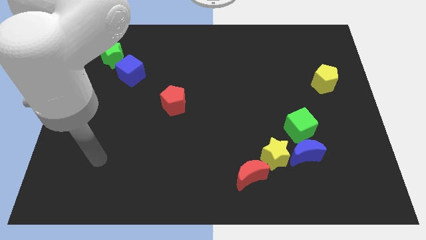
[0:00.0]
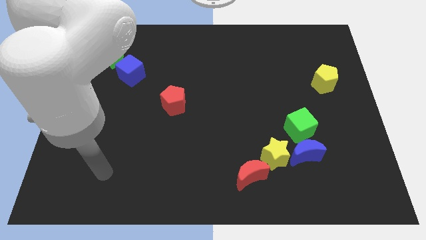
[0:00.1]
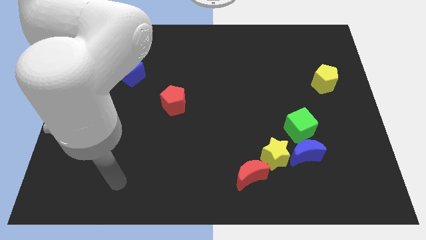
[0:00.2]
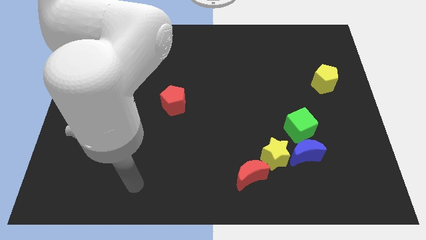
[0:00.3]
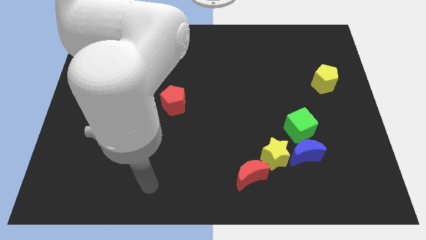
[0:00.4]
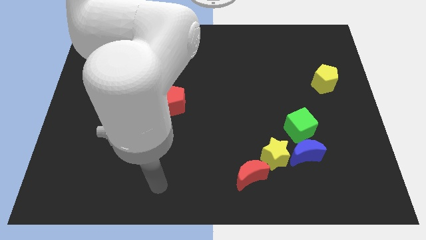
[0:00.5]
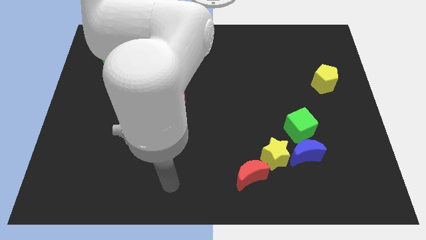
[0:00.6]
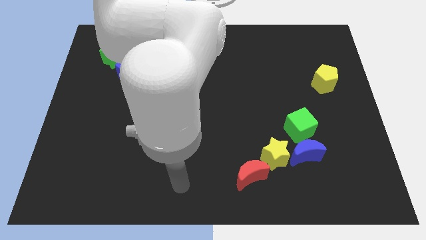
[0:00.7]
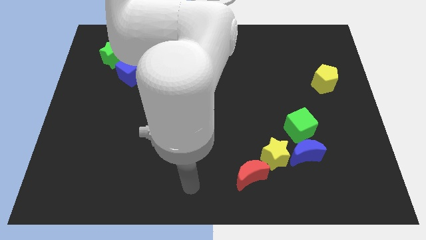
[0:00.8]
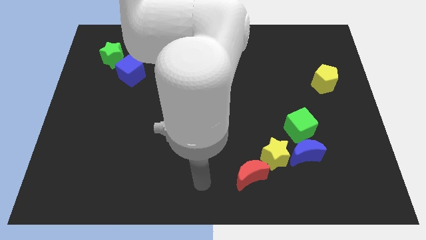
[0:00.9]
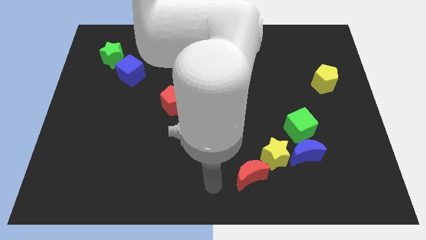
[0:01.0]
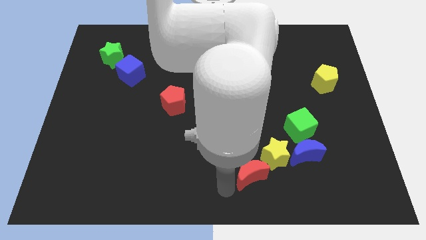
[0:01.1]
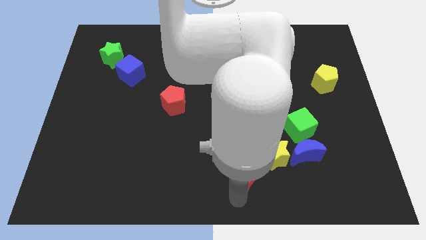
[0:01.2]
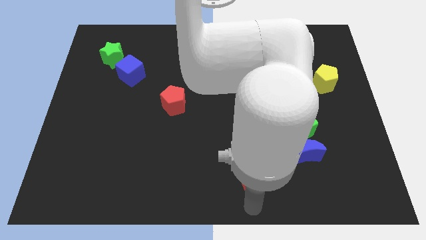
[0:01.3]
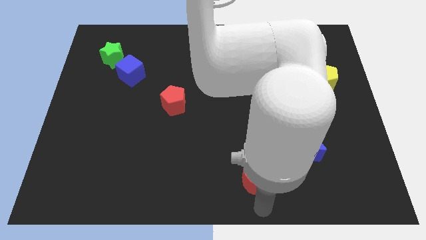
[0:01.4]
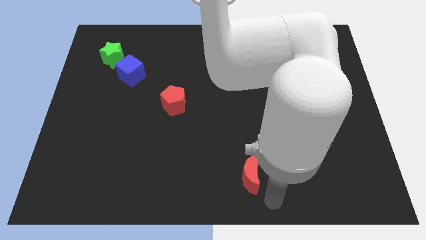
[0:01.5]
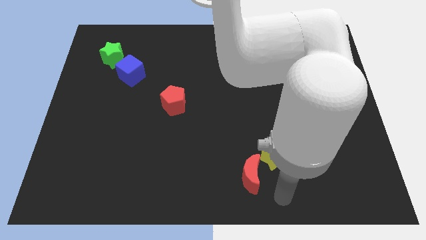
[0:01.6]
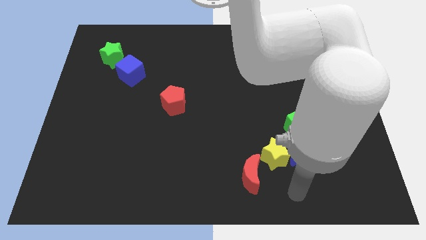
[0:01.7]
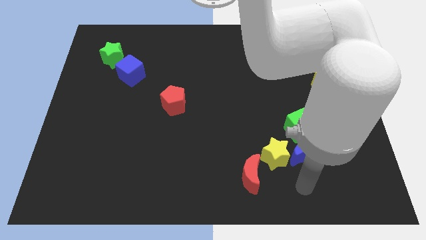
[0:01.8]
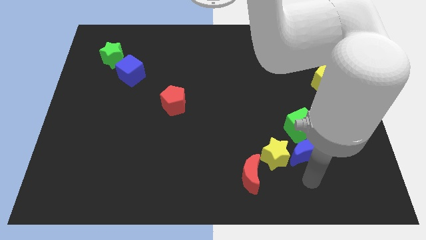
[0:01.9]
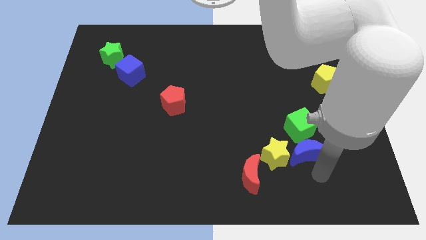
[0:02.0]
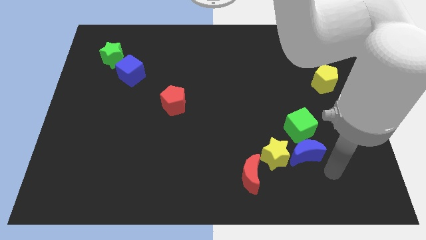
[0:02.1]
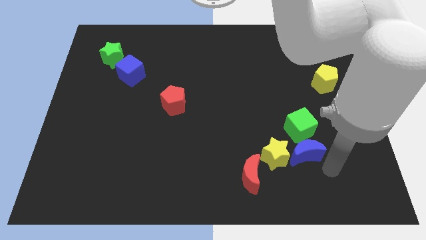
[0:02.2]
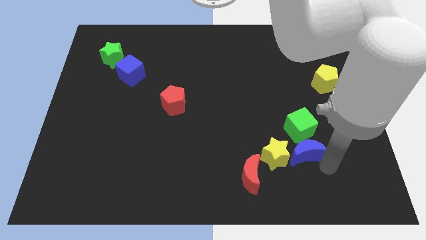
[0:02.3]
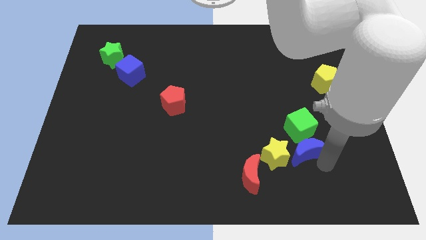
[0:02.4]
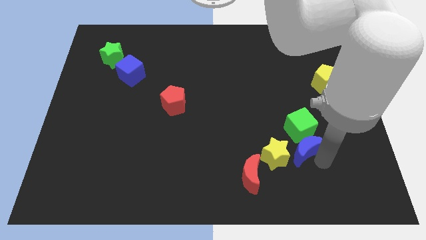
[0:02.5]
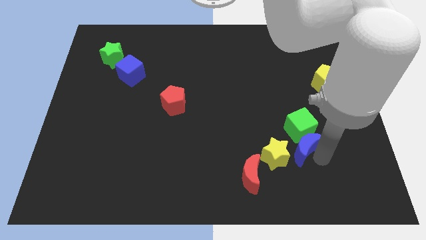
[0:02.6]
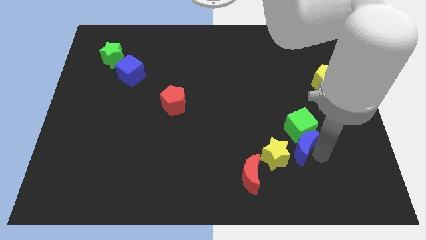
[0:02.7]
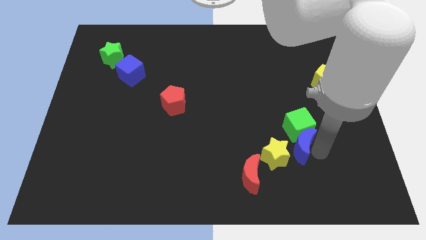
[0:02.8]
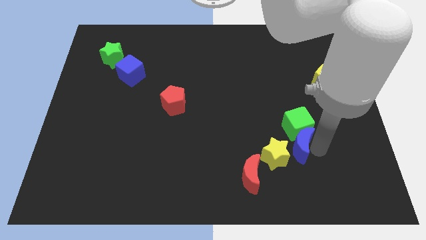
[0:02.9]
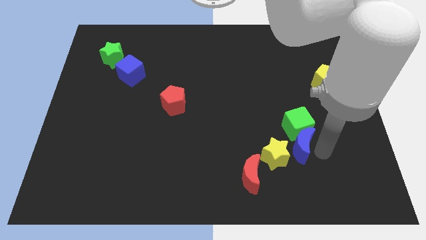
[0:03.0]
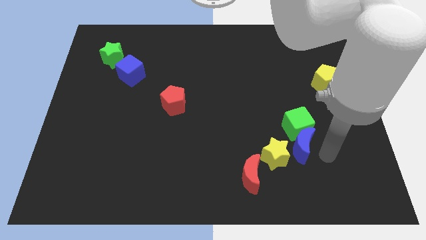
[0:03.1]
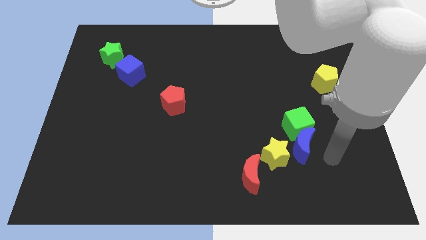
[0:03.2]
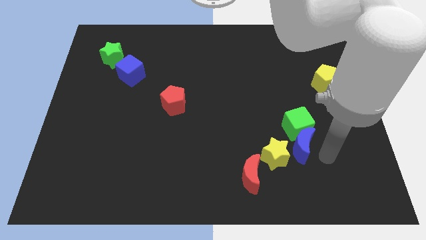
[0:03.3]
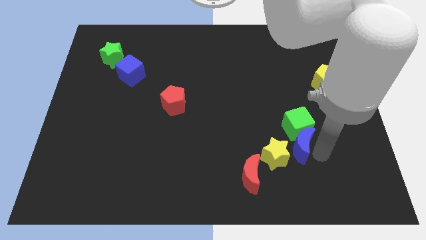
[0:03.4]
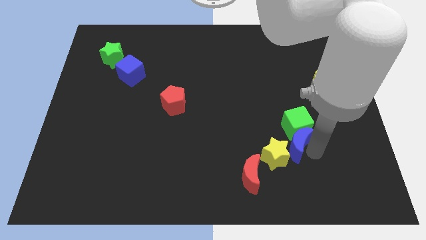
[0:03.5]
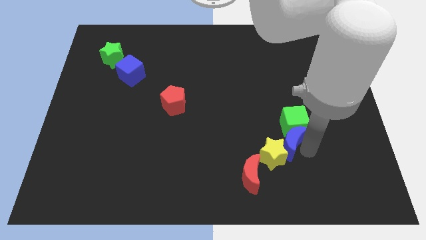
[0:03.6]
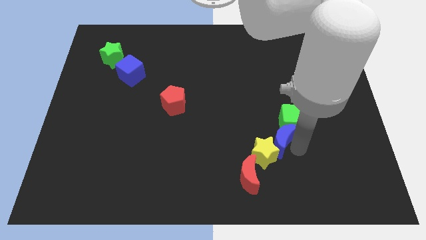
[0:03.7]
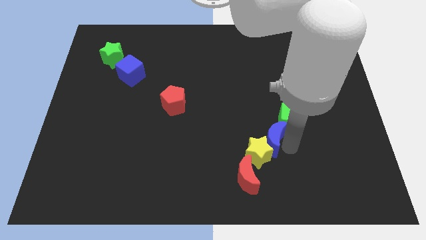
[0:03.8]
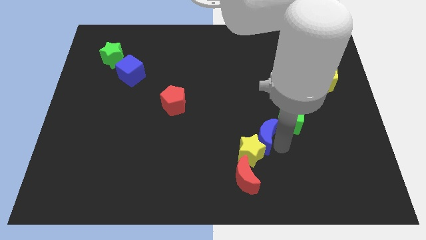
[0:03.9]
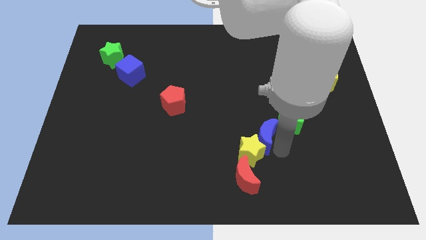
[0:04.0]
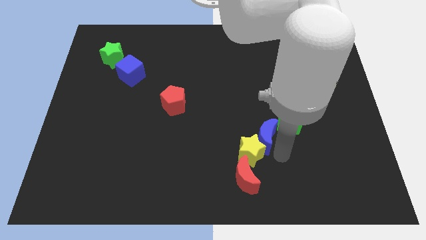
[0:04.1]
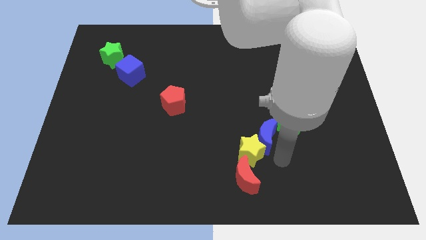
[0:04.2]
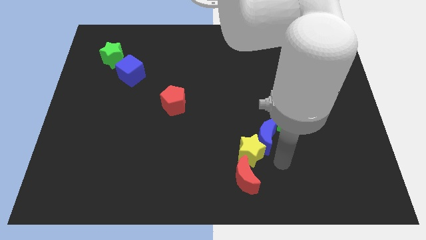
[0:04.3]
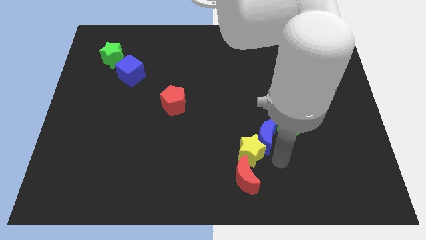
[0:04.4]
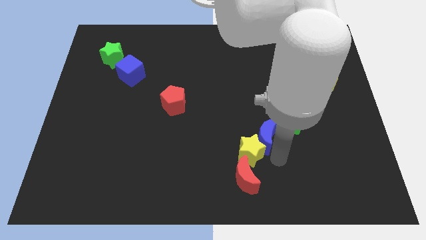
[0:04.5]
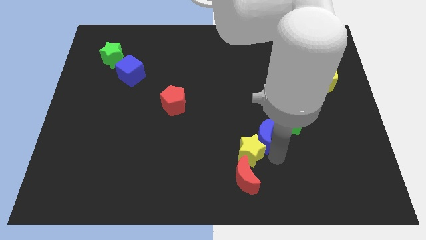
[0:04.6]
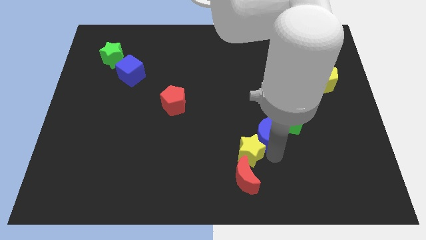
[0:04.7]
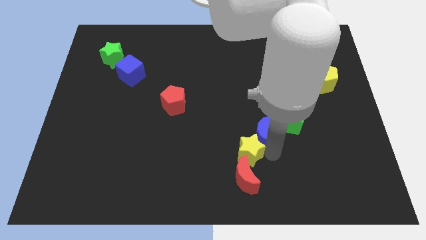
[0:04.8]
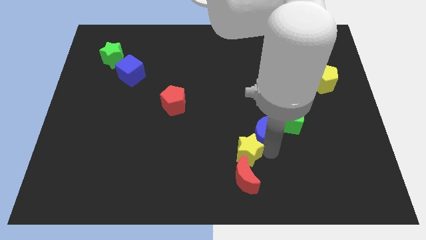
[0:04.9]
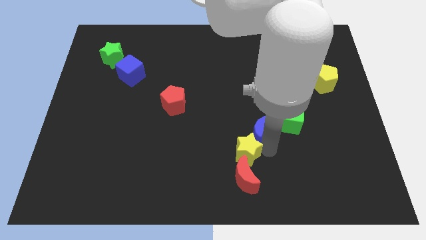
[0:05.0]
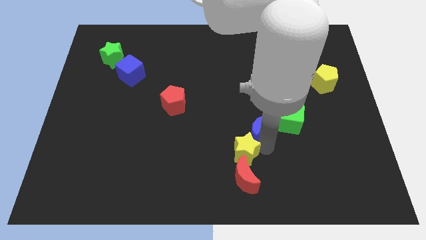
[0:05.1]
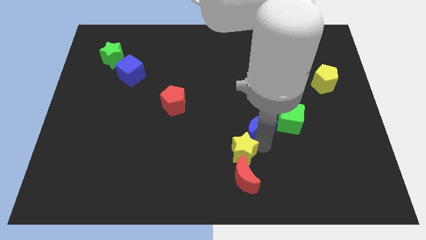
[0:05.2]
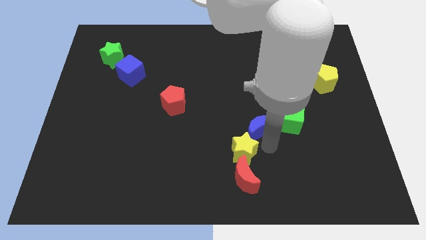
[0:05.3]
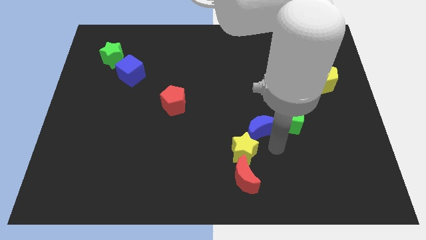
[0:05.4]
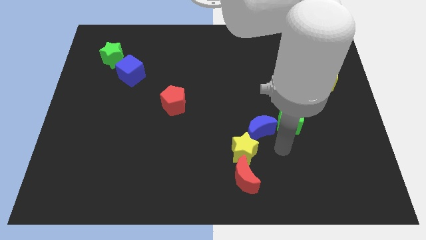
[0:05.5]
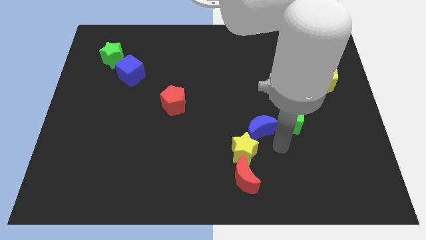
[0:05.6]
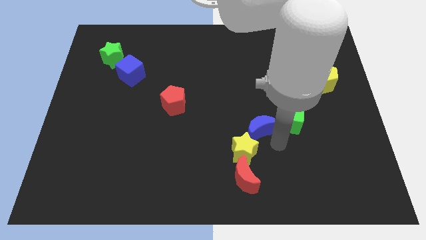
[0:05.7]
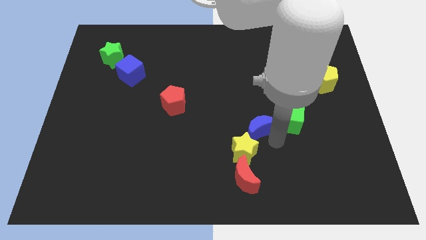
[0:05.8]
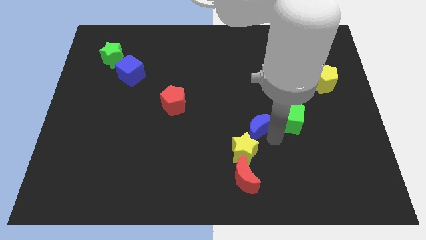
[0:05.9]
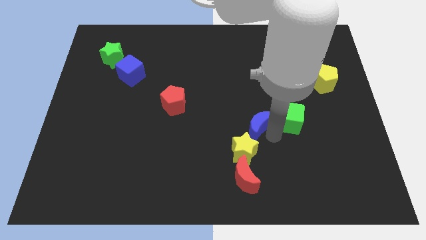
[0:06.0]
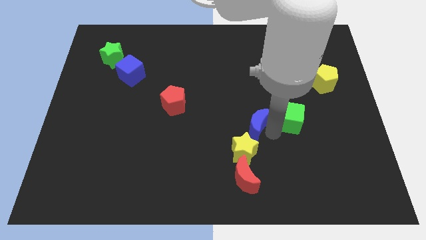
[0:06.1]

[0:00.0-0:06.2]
put the blue moon to the middle of the board
